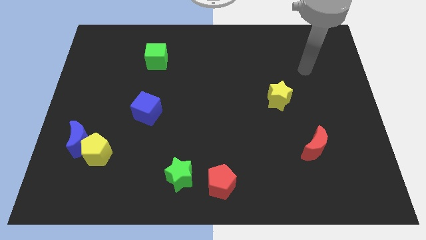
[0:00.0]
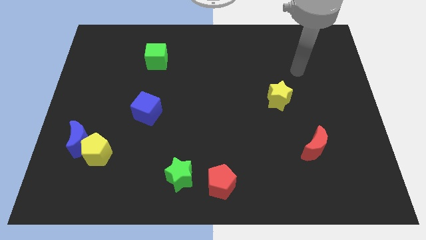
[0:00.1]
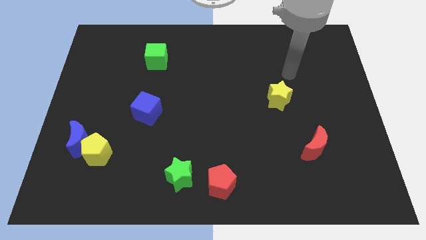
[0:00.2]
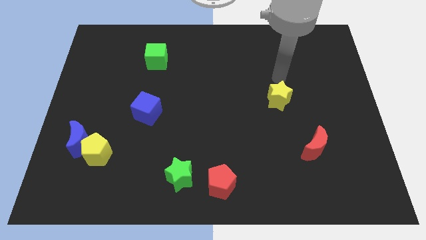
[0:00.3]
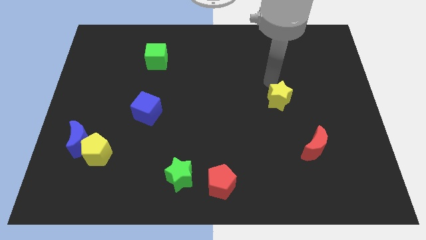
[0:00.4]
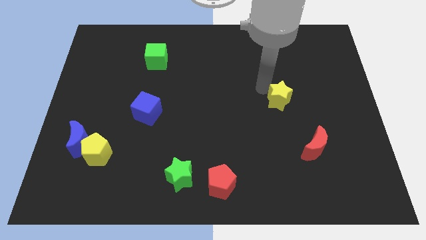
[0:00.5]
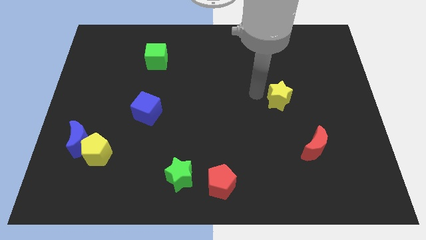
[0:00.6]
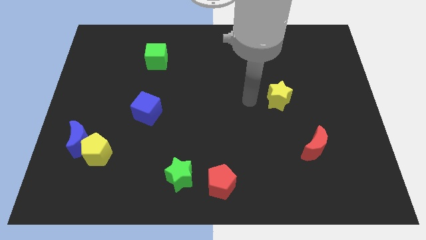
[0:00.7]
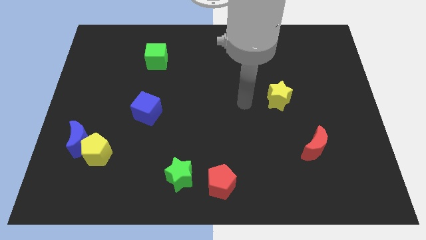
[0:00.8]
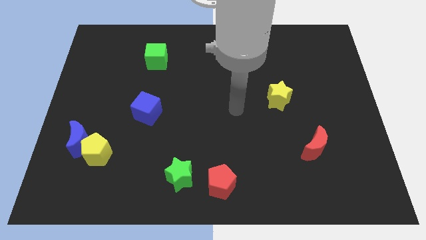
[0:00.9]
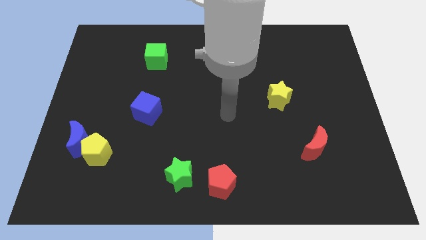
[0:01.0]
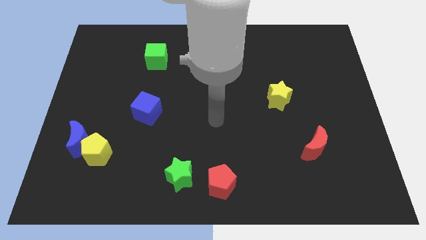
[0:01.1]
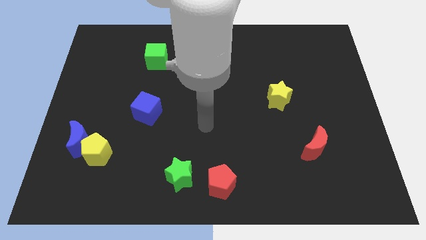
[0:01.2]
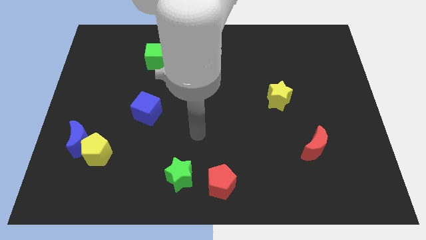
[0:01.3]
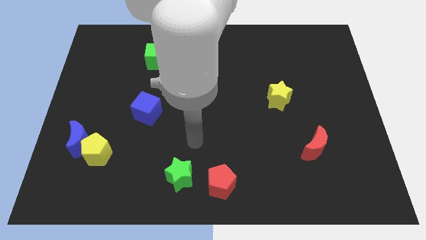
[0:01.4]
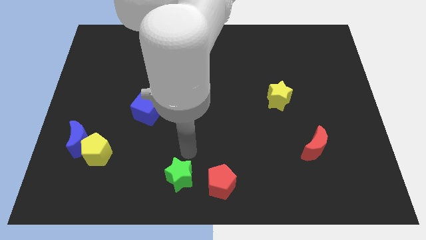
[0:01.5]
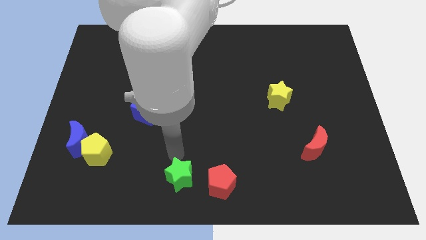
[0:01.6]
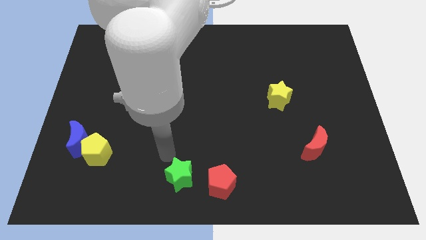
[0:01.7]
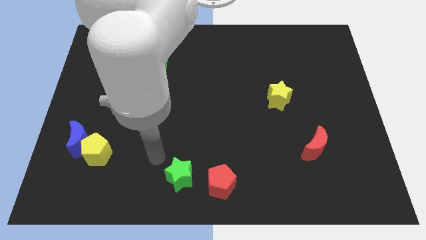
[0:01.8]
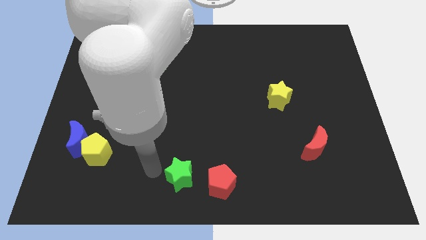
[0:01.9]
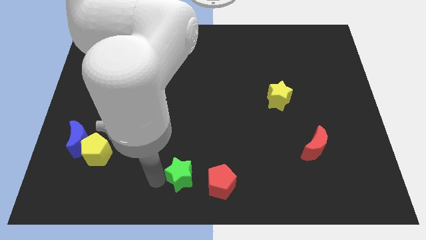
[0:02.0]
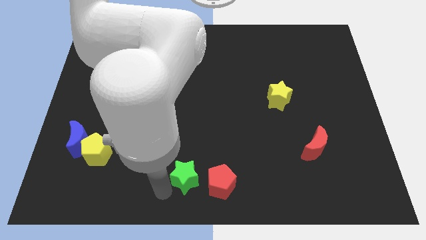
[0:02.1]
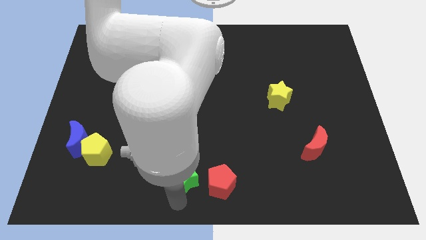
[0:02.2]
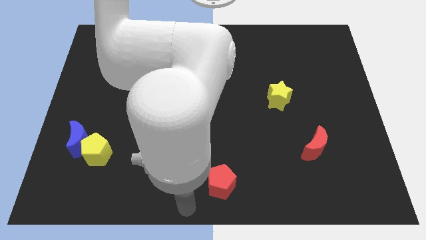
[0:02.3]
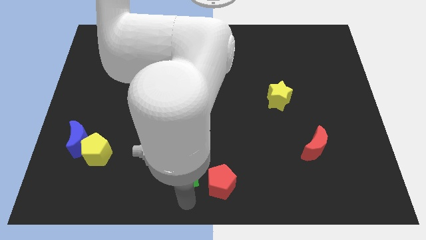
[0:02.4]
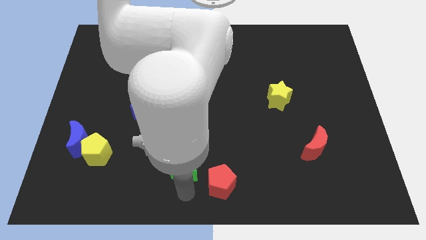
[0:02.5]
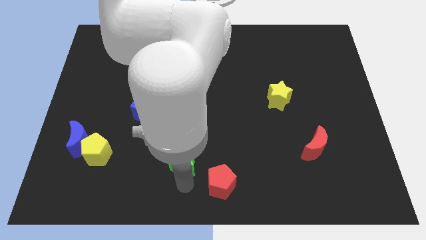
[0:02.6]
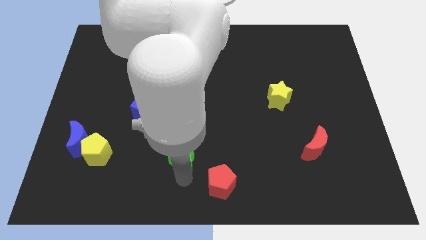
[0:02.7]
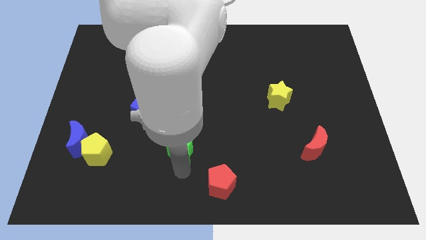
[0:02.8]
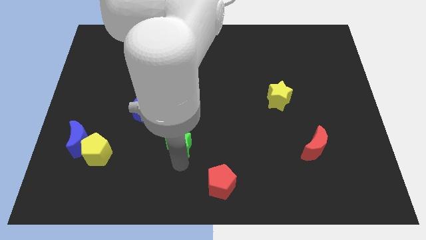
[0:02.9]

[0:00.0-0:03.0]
slightly push the green star up

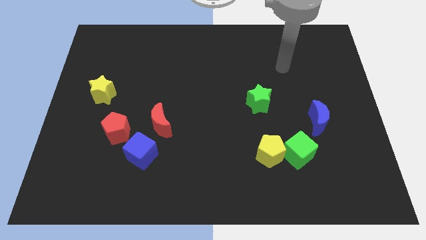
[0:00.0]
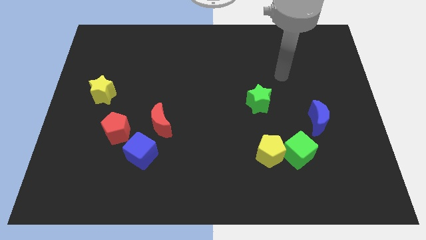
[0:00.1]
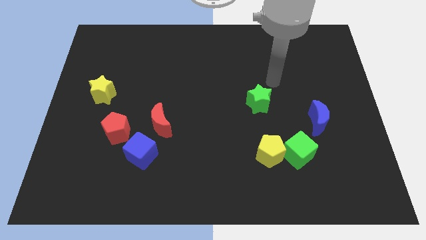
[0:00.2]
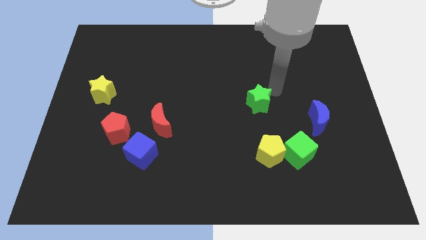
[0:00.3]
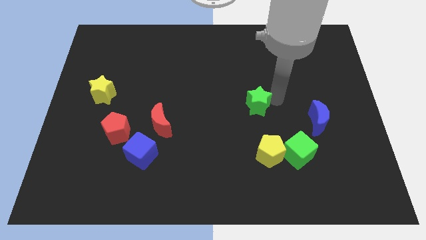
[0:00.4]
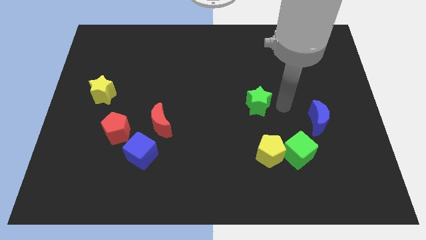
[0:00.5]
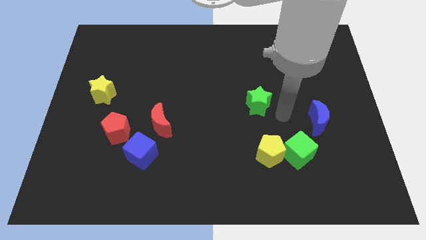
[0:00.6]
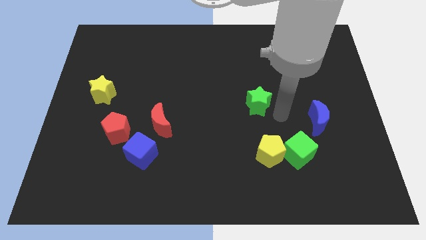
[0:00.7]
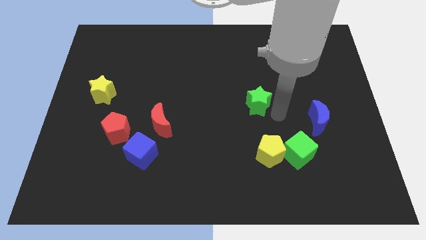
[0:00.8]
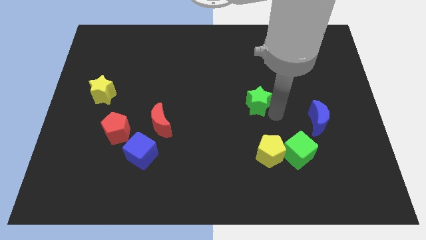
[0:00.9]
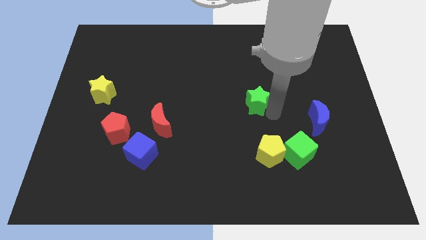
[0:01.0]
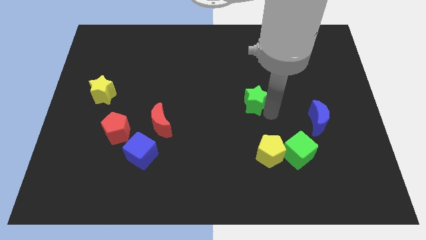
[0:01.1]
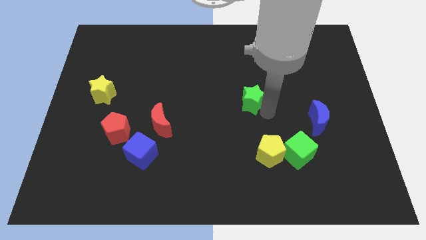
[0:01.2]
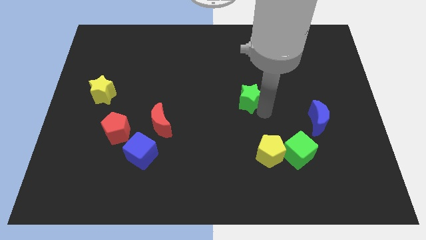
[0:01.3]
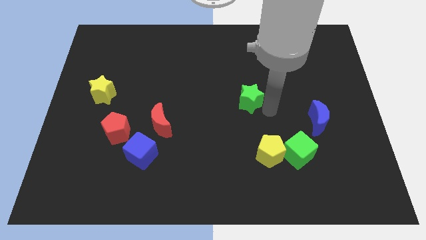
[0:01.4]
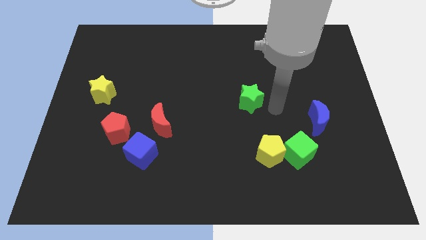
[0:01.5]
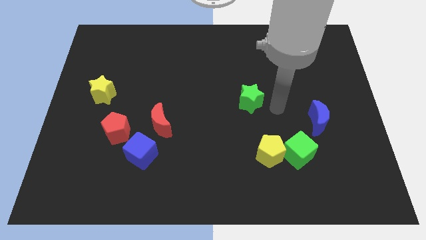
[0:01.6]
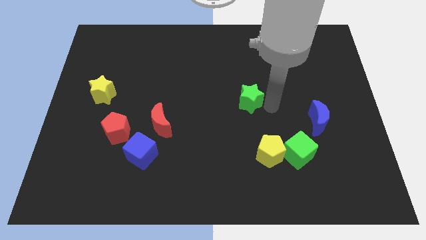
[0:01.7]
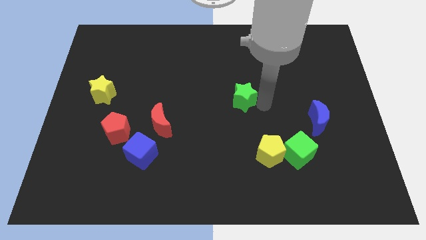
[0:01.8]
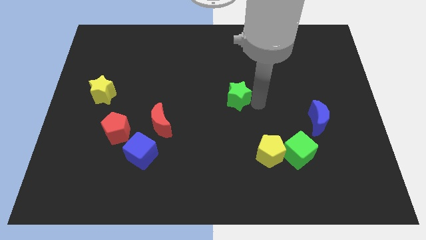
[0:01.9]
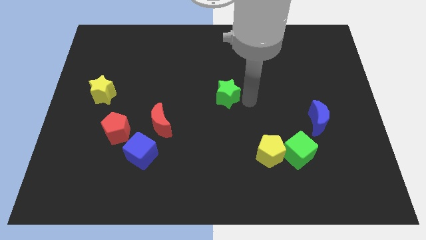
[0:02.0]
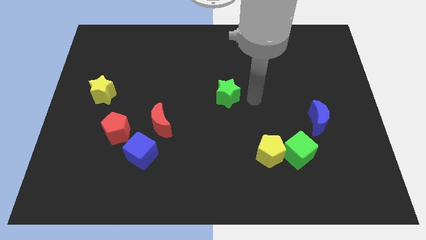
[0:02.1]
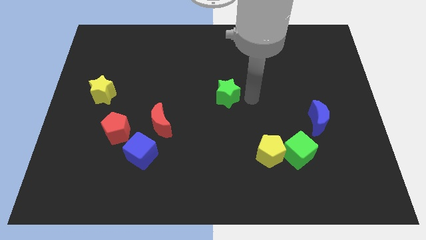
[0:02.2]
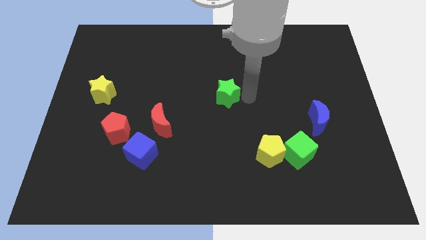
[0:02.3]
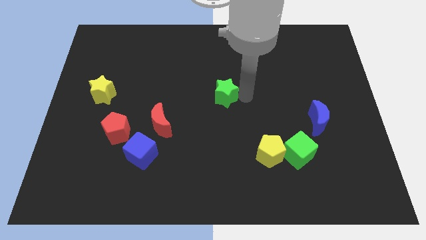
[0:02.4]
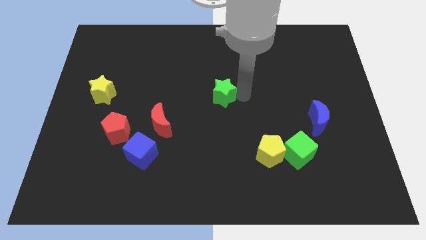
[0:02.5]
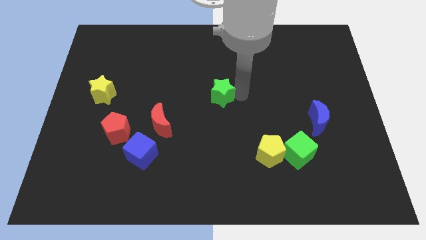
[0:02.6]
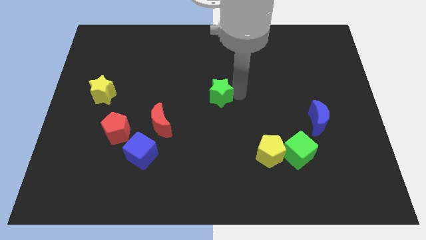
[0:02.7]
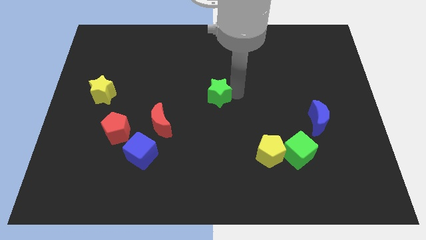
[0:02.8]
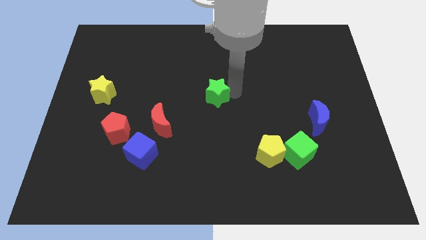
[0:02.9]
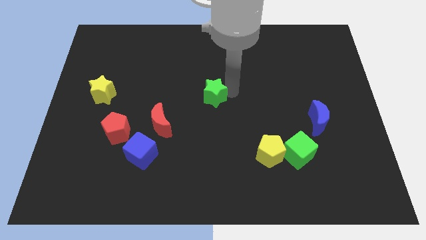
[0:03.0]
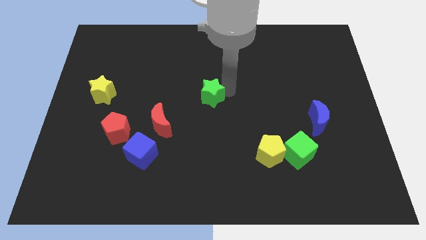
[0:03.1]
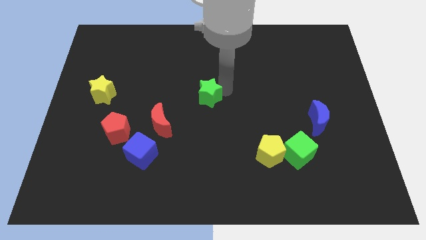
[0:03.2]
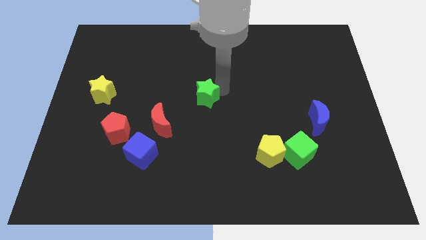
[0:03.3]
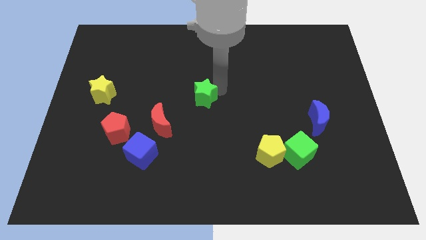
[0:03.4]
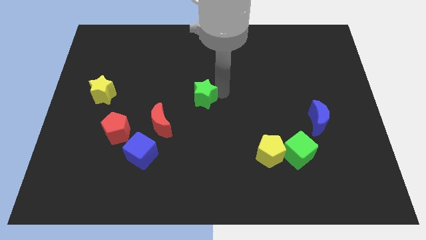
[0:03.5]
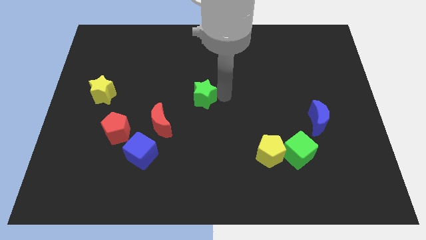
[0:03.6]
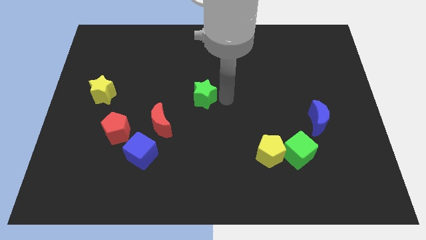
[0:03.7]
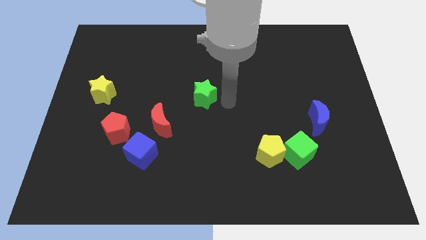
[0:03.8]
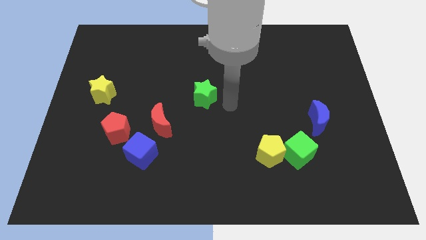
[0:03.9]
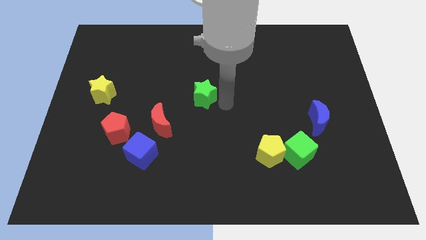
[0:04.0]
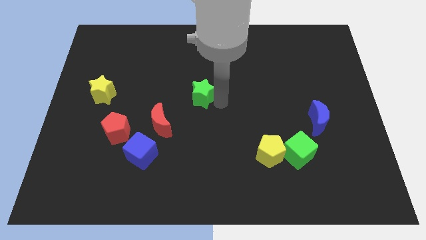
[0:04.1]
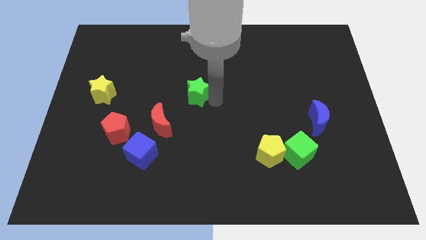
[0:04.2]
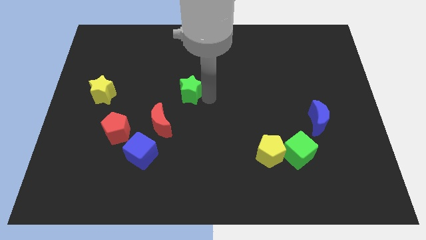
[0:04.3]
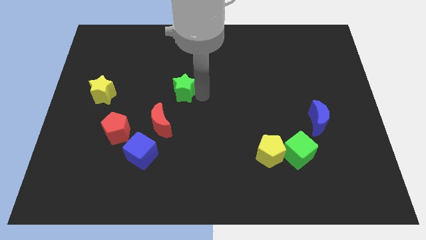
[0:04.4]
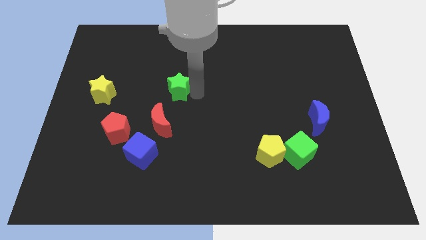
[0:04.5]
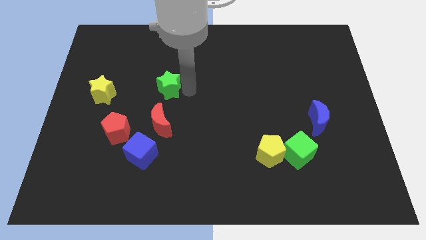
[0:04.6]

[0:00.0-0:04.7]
move the green star left

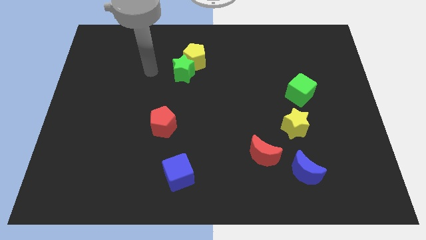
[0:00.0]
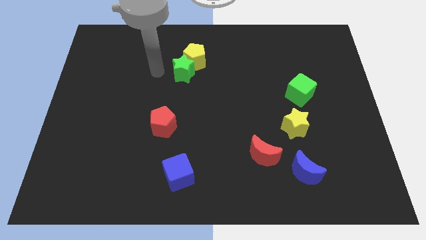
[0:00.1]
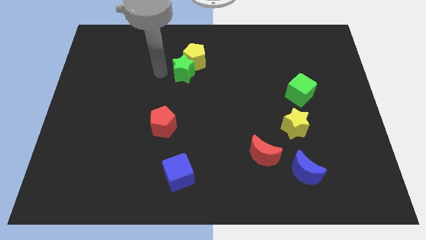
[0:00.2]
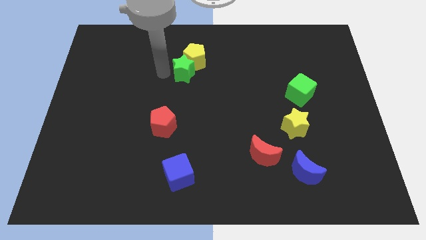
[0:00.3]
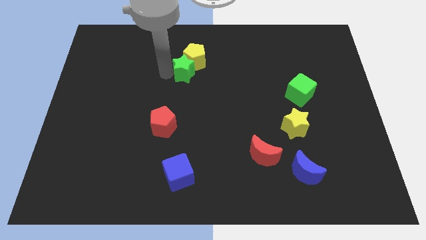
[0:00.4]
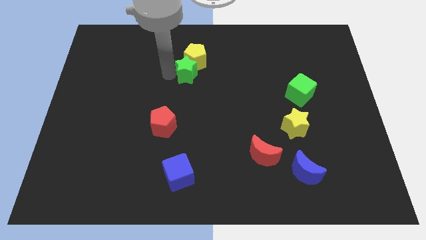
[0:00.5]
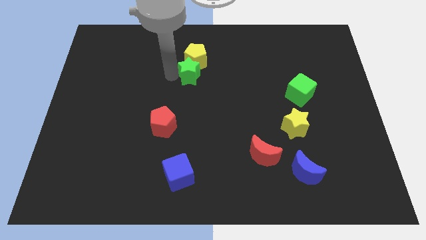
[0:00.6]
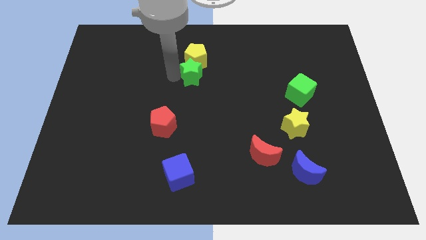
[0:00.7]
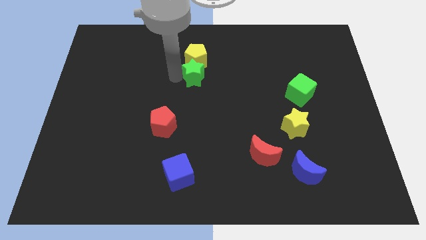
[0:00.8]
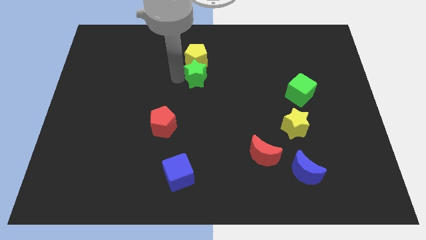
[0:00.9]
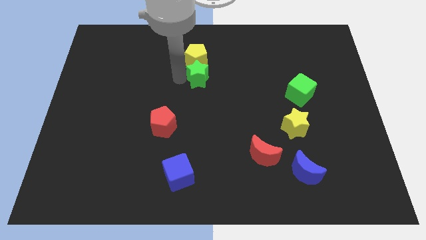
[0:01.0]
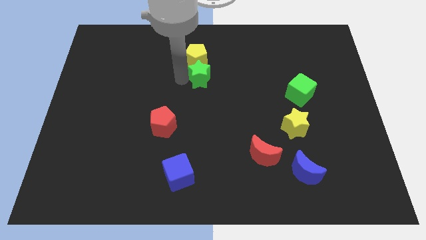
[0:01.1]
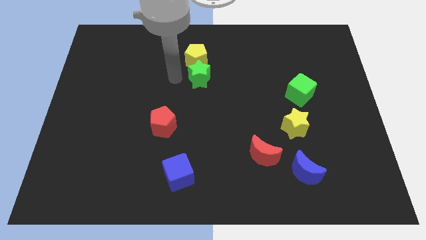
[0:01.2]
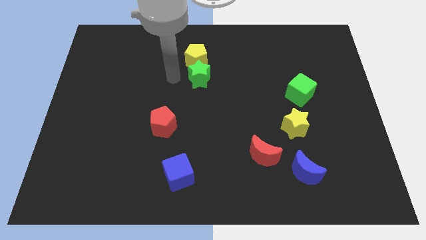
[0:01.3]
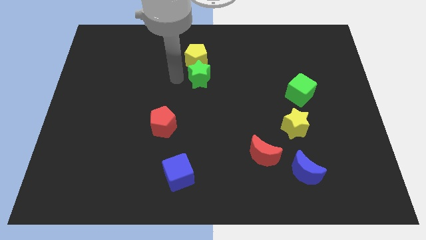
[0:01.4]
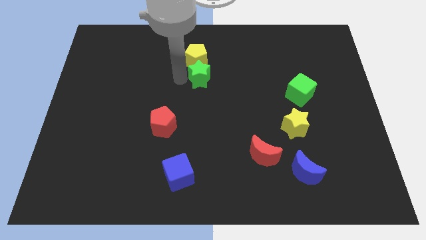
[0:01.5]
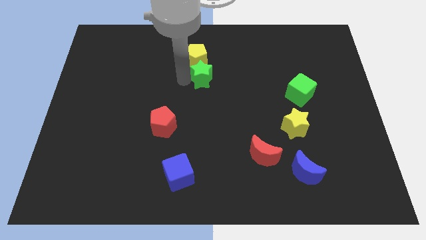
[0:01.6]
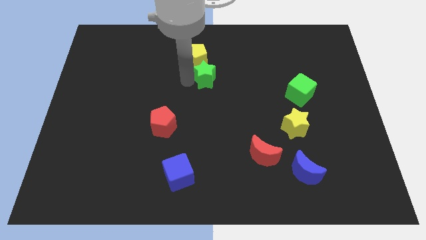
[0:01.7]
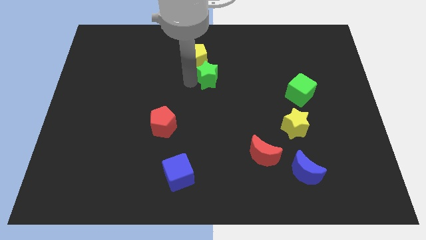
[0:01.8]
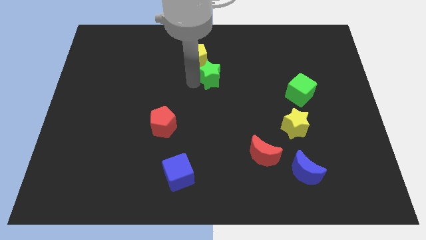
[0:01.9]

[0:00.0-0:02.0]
move the green star somewhat right
